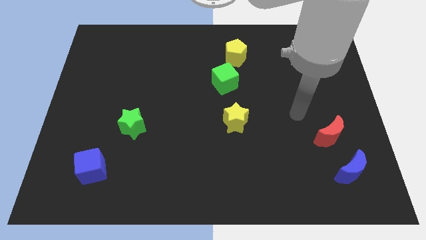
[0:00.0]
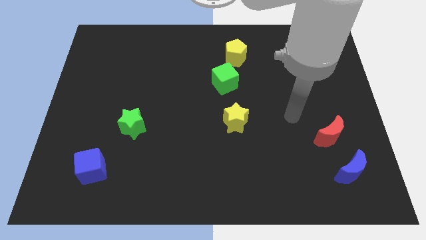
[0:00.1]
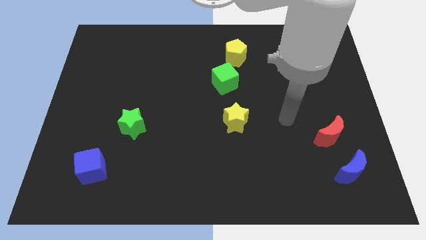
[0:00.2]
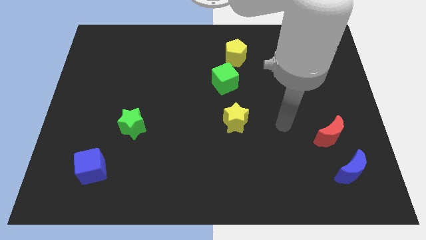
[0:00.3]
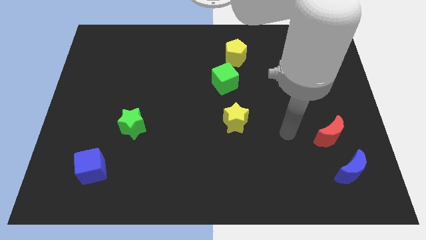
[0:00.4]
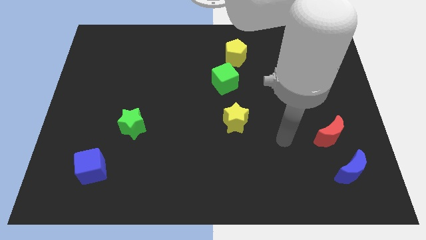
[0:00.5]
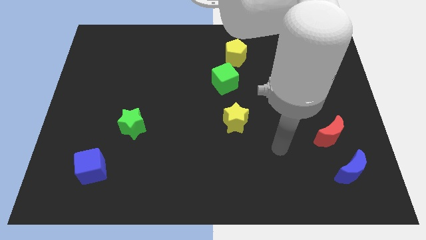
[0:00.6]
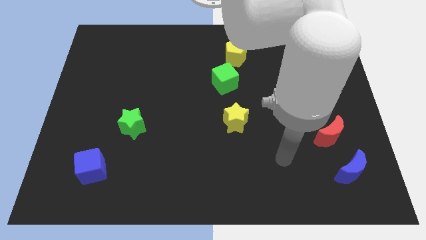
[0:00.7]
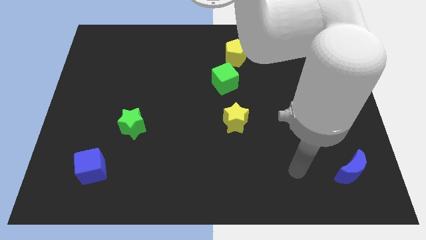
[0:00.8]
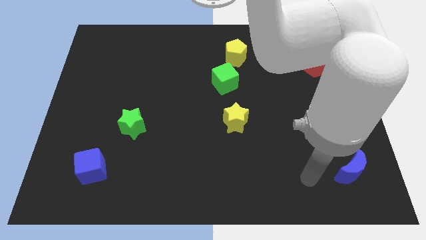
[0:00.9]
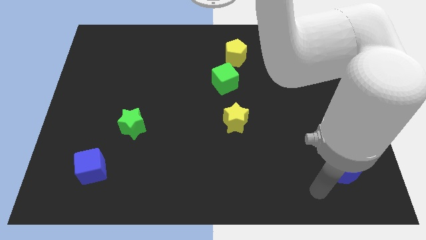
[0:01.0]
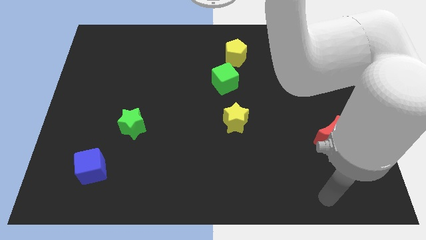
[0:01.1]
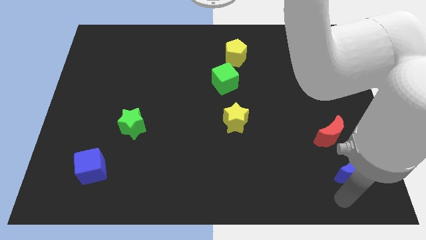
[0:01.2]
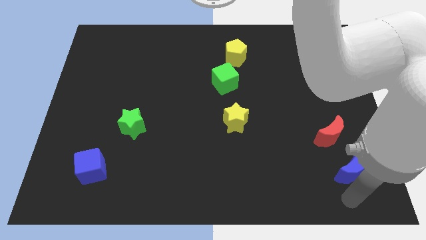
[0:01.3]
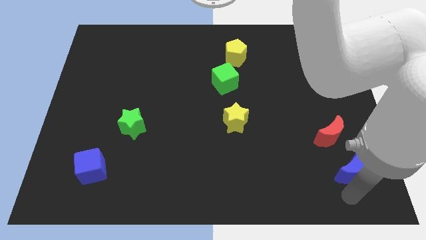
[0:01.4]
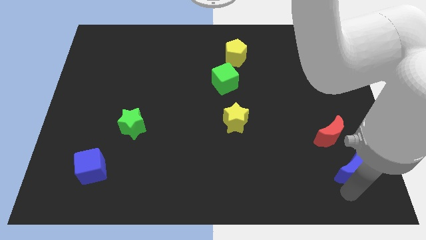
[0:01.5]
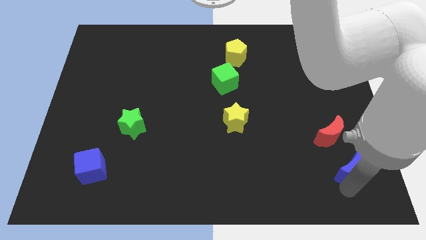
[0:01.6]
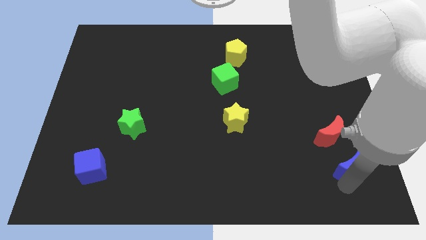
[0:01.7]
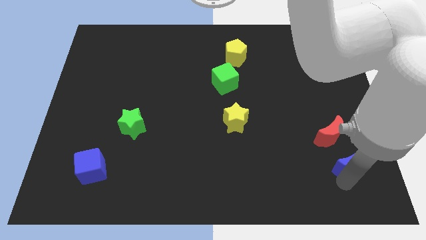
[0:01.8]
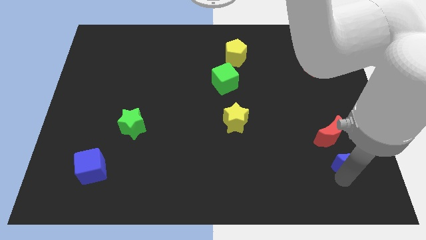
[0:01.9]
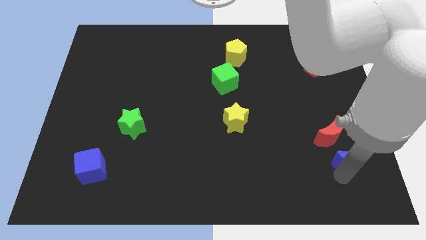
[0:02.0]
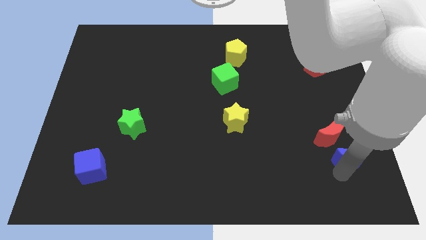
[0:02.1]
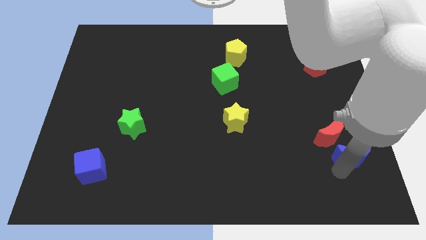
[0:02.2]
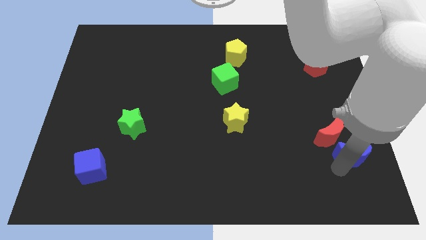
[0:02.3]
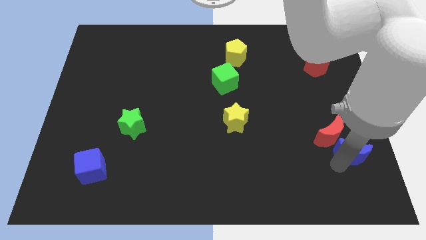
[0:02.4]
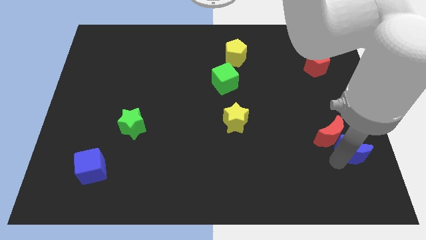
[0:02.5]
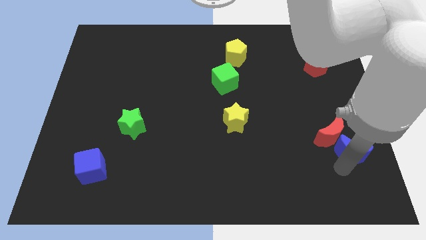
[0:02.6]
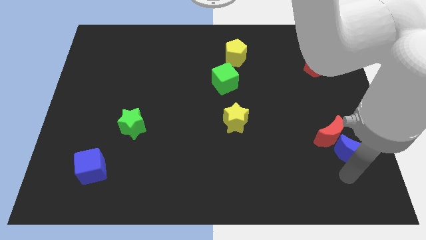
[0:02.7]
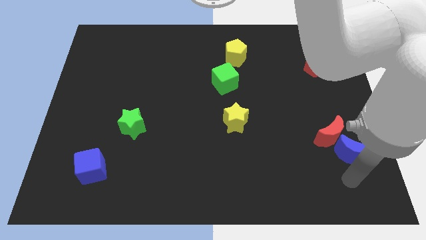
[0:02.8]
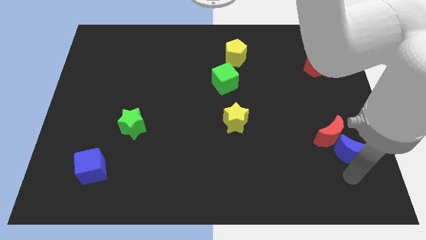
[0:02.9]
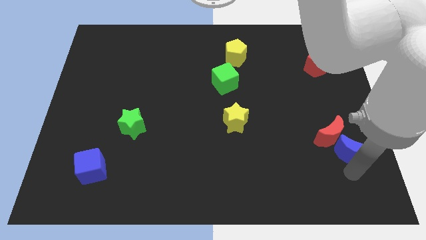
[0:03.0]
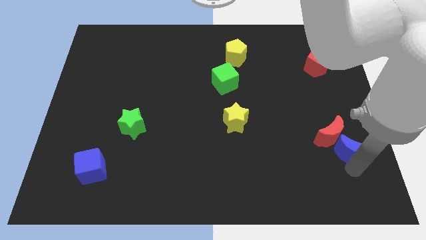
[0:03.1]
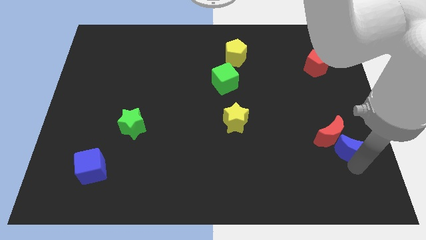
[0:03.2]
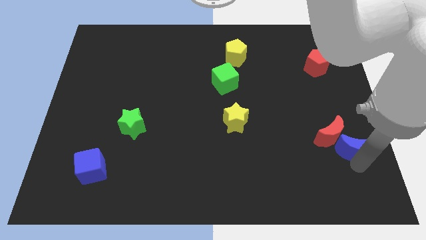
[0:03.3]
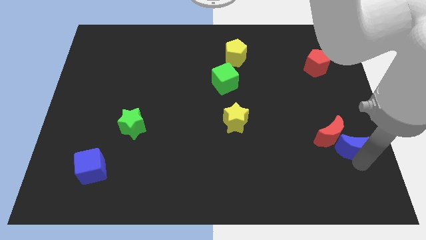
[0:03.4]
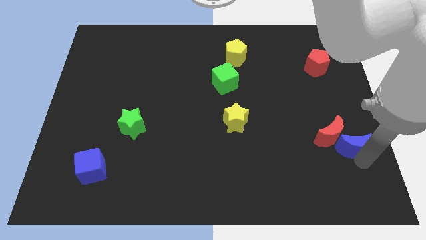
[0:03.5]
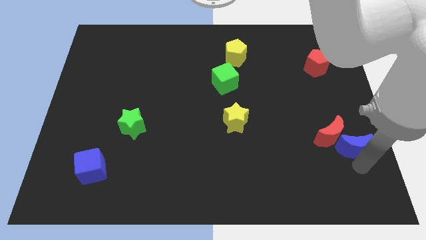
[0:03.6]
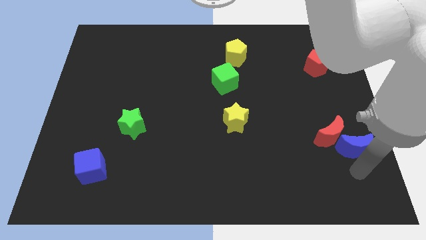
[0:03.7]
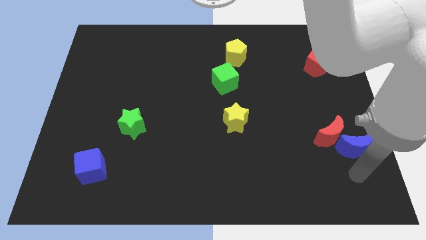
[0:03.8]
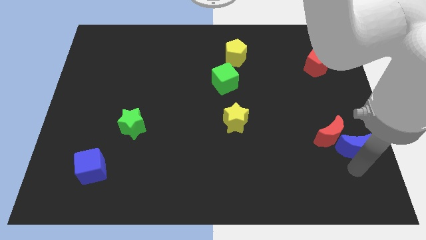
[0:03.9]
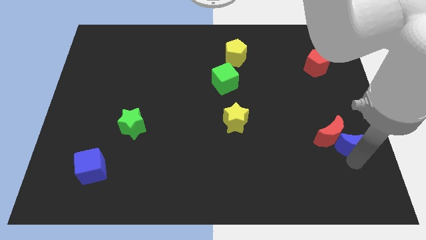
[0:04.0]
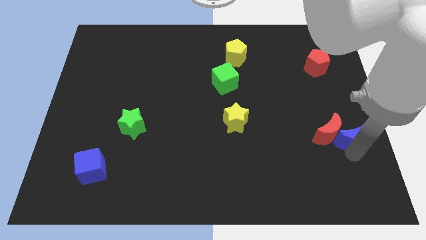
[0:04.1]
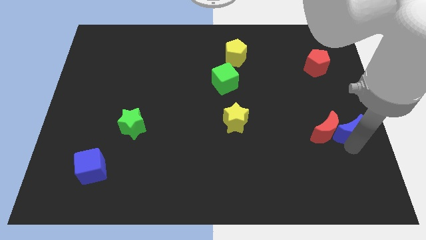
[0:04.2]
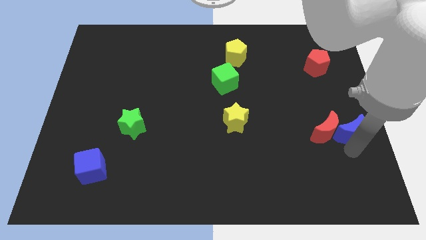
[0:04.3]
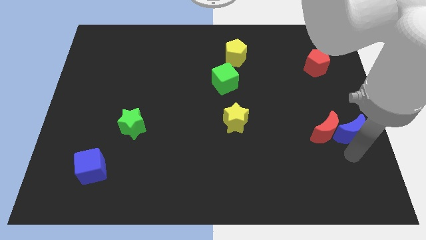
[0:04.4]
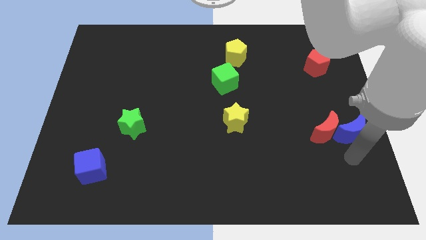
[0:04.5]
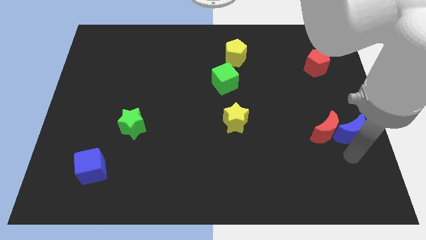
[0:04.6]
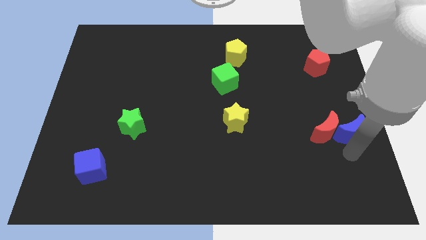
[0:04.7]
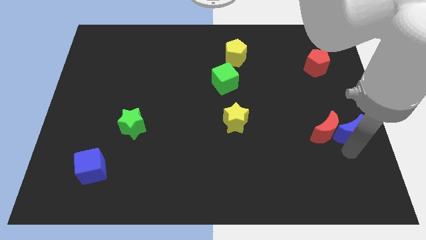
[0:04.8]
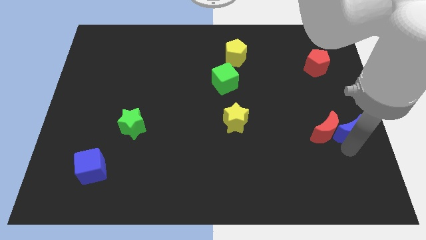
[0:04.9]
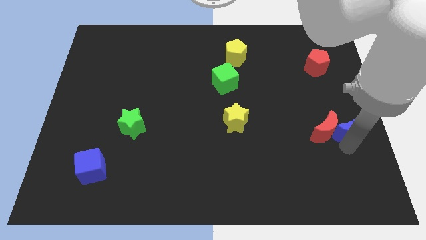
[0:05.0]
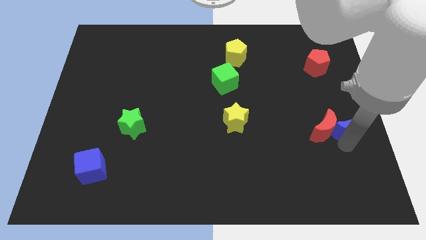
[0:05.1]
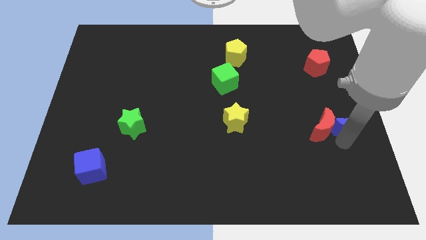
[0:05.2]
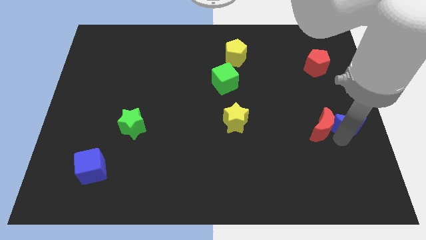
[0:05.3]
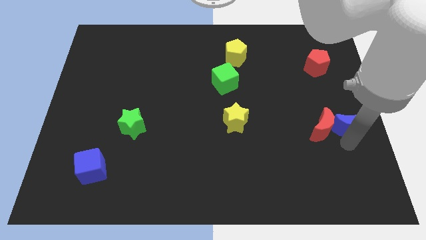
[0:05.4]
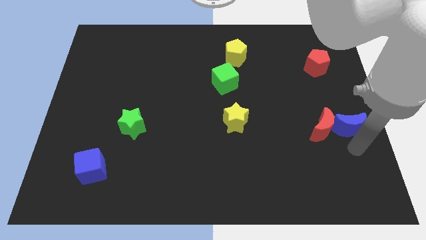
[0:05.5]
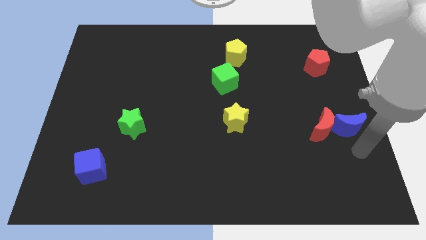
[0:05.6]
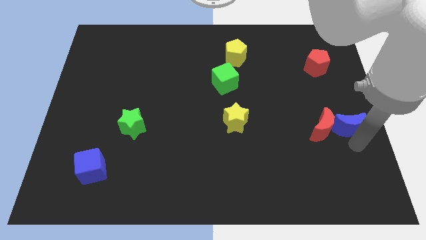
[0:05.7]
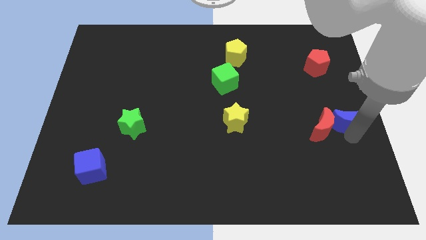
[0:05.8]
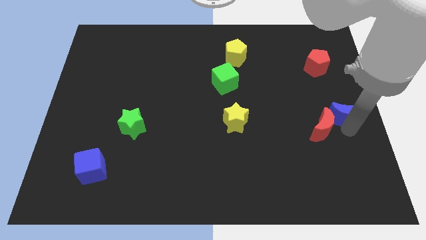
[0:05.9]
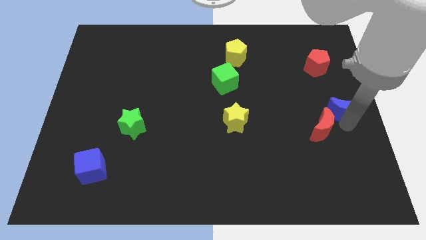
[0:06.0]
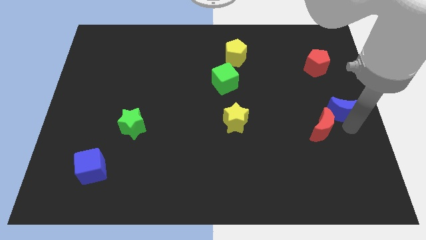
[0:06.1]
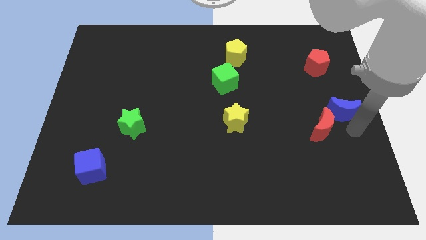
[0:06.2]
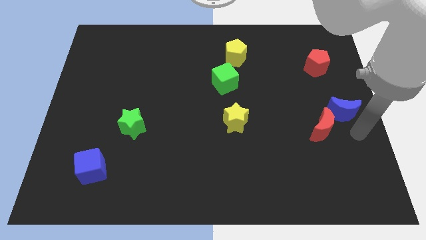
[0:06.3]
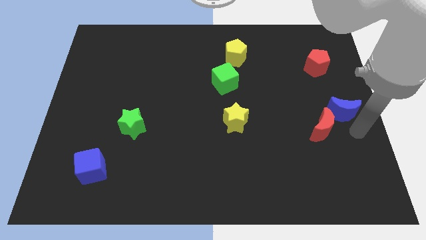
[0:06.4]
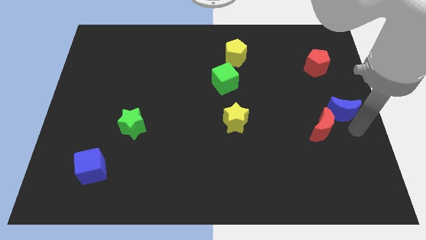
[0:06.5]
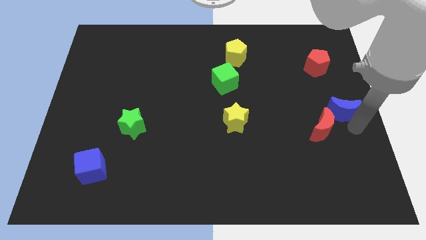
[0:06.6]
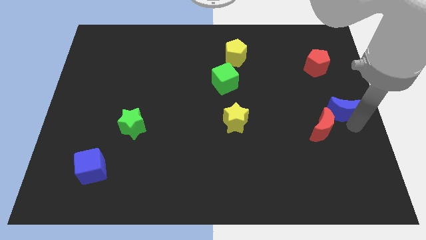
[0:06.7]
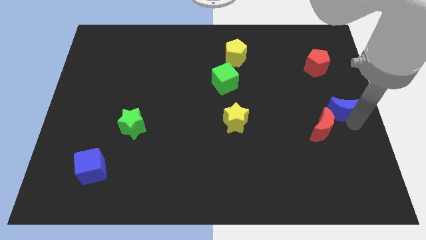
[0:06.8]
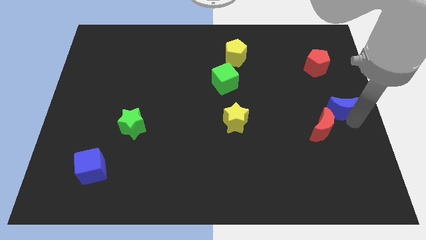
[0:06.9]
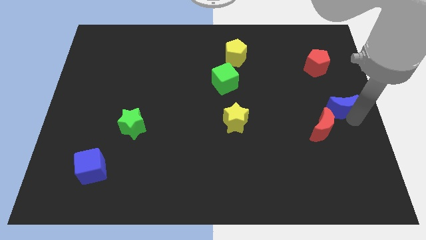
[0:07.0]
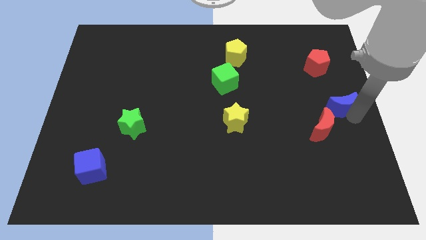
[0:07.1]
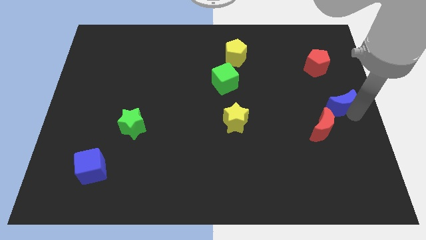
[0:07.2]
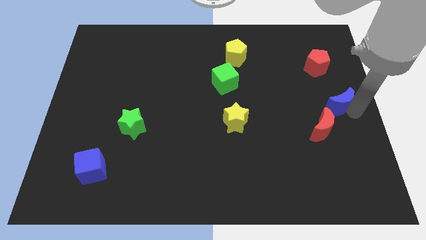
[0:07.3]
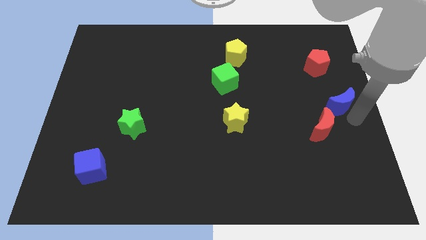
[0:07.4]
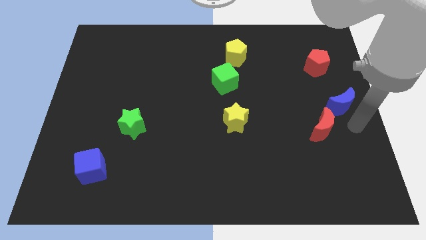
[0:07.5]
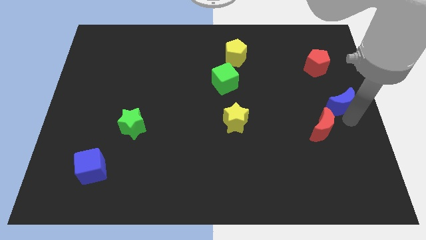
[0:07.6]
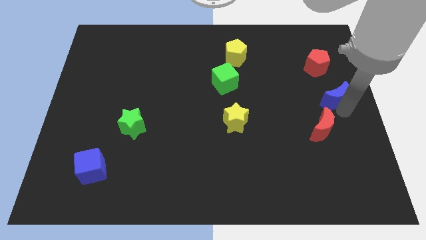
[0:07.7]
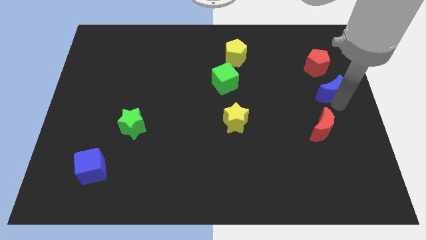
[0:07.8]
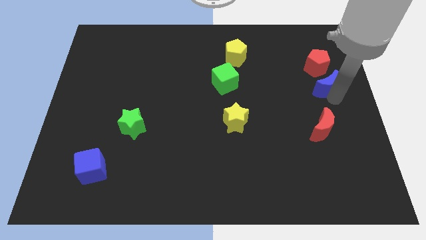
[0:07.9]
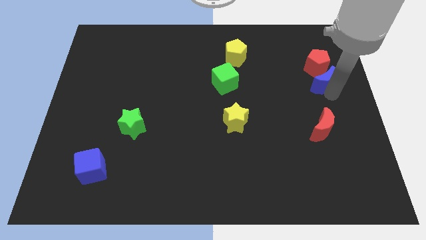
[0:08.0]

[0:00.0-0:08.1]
put the blue moon to the red pentagon
